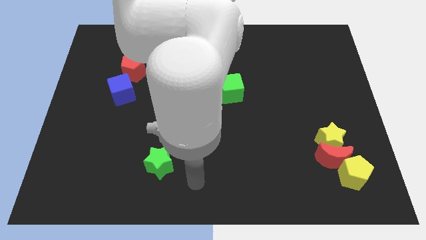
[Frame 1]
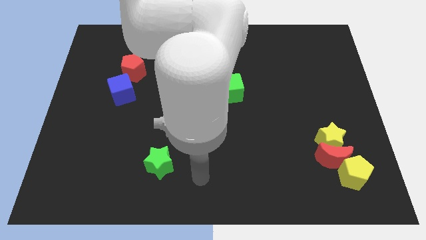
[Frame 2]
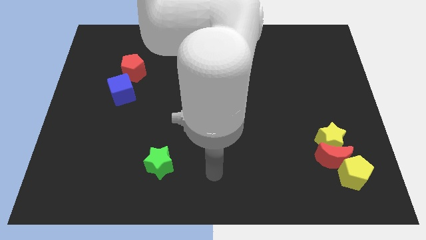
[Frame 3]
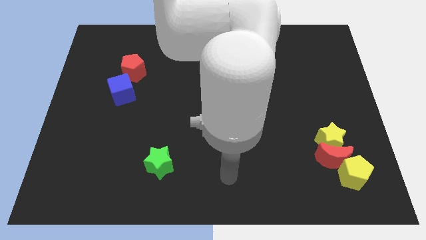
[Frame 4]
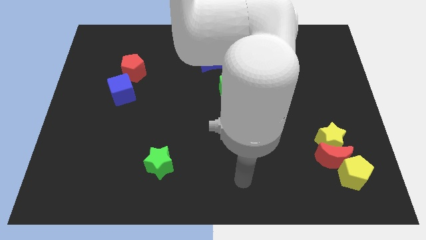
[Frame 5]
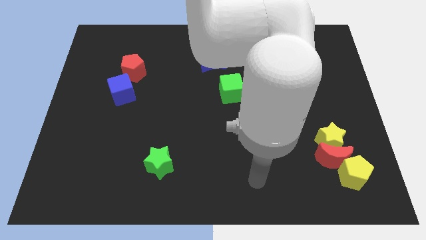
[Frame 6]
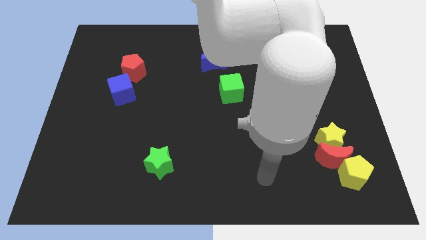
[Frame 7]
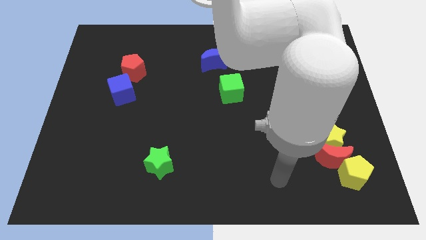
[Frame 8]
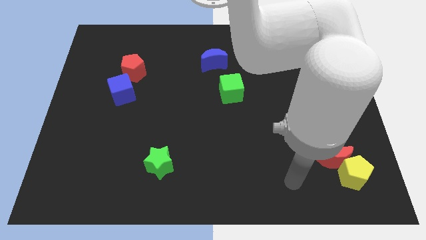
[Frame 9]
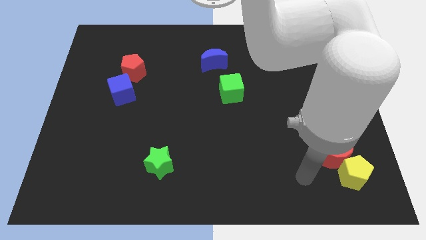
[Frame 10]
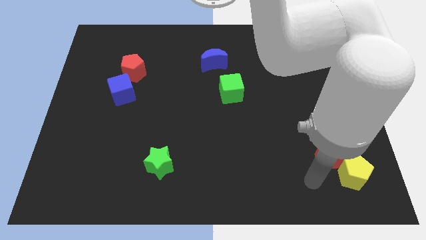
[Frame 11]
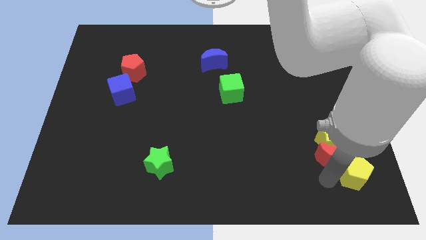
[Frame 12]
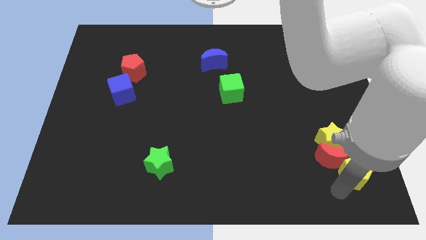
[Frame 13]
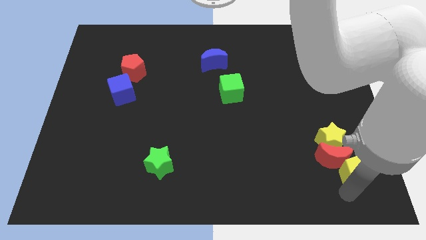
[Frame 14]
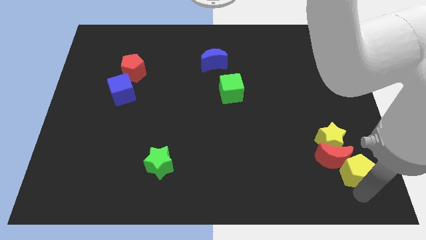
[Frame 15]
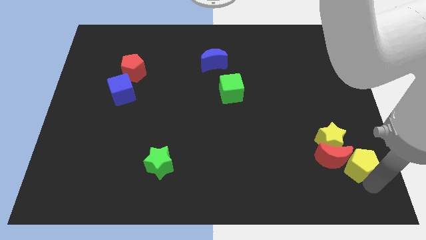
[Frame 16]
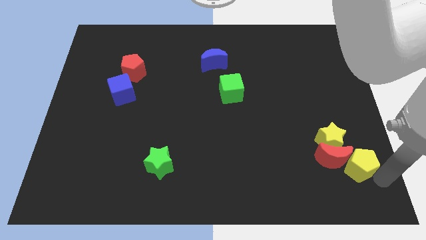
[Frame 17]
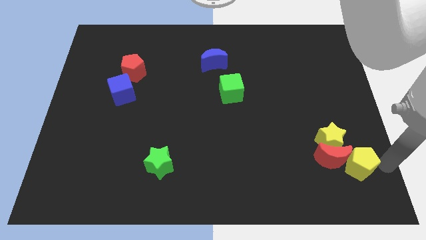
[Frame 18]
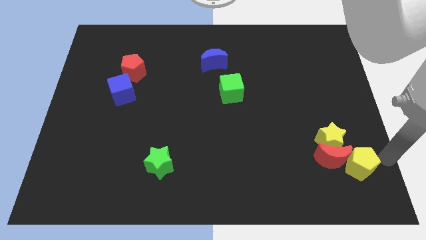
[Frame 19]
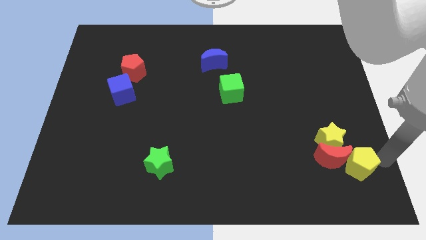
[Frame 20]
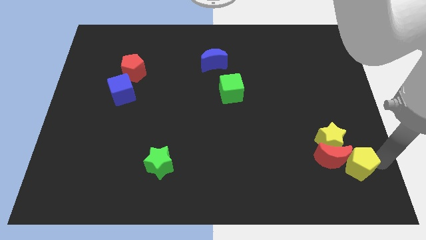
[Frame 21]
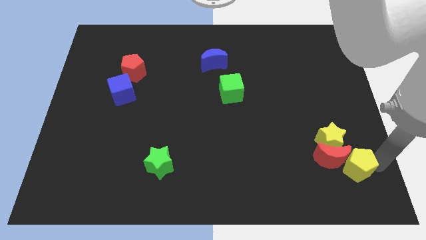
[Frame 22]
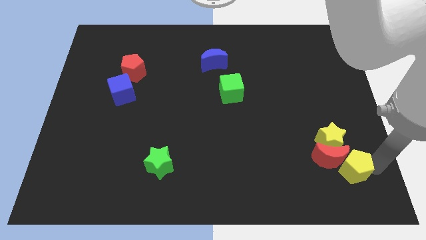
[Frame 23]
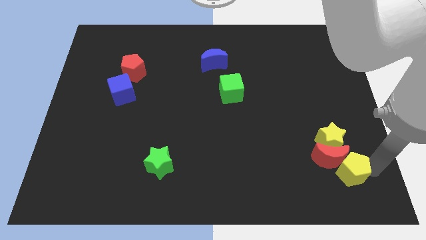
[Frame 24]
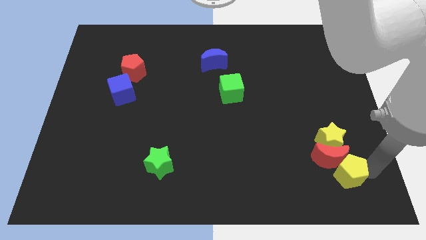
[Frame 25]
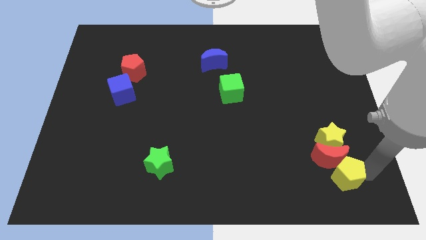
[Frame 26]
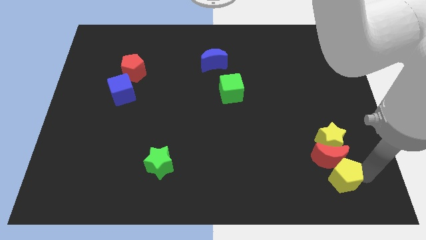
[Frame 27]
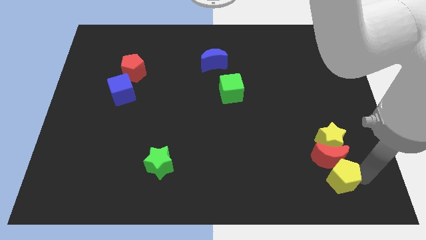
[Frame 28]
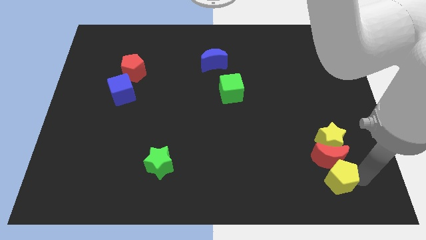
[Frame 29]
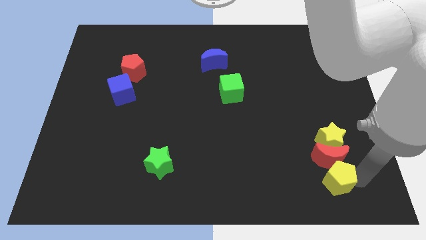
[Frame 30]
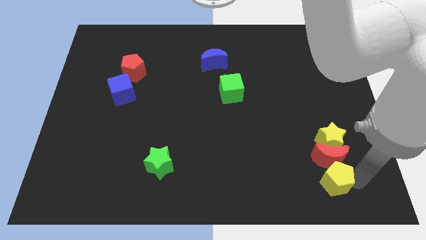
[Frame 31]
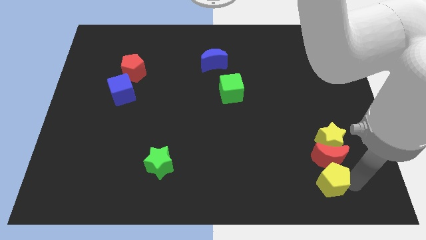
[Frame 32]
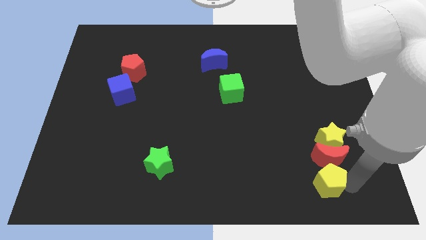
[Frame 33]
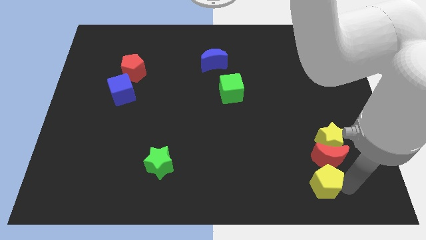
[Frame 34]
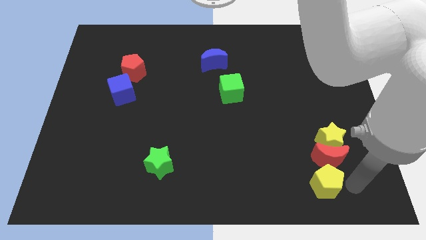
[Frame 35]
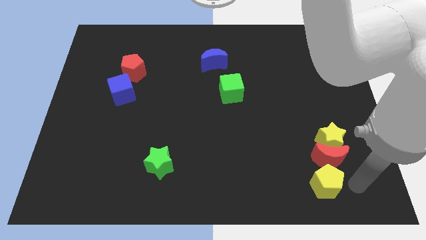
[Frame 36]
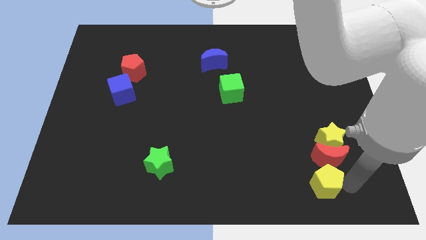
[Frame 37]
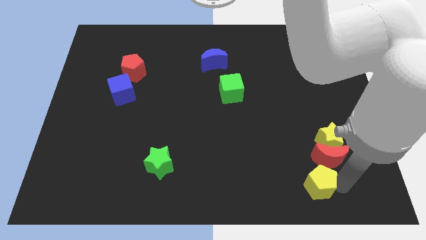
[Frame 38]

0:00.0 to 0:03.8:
move the yellow pentagon a little left

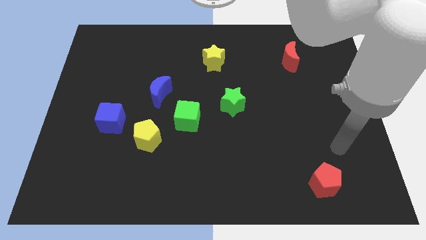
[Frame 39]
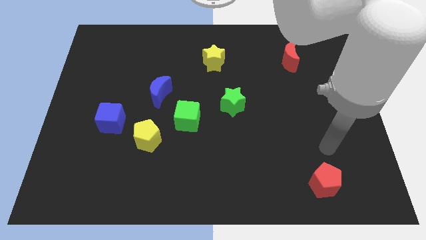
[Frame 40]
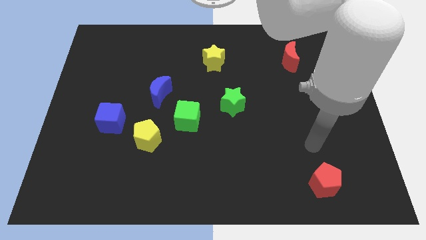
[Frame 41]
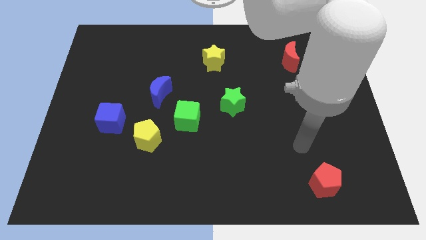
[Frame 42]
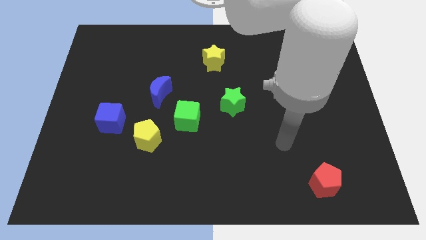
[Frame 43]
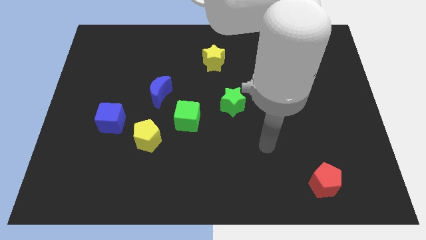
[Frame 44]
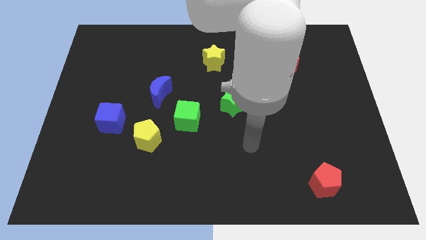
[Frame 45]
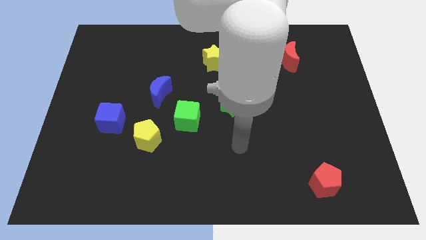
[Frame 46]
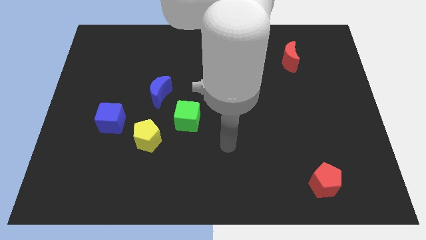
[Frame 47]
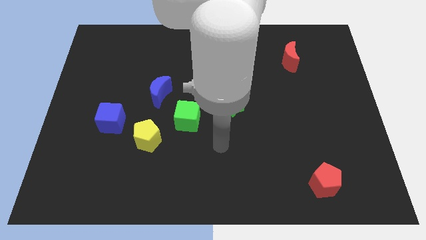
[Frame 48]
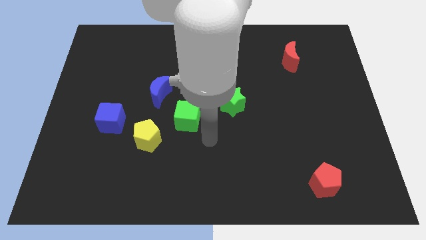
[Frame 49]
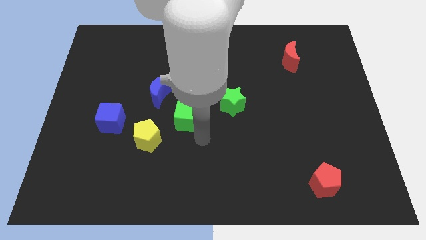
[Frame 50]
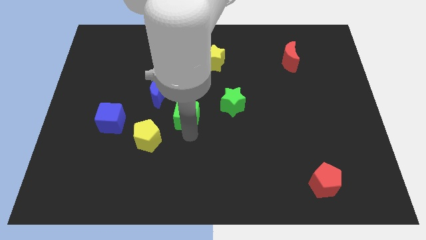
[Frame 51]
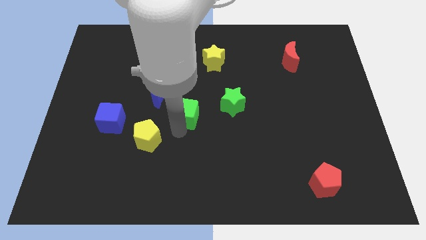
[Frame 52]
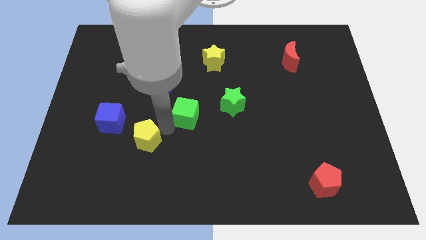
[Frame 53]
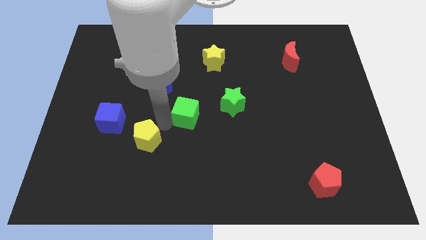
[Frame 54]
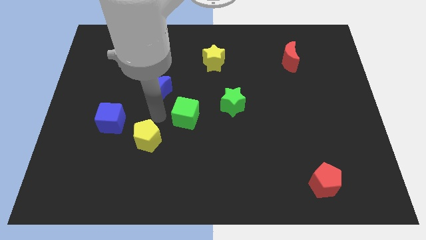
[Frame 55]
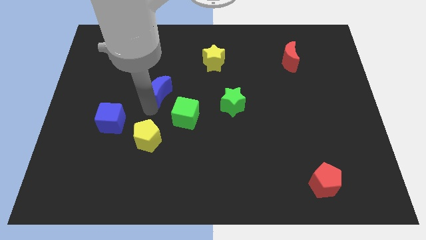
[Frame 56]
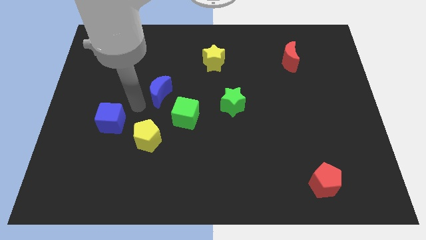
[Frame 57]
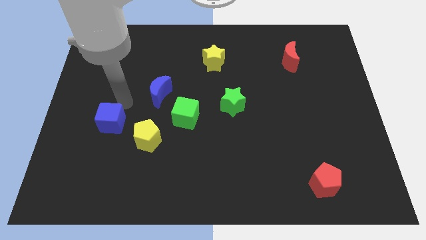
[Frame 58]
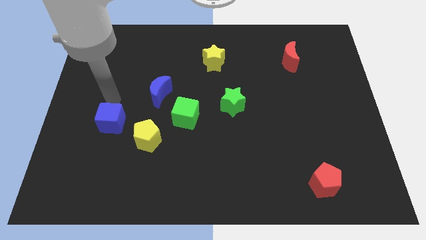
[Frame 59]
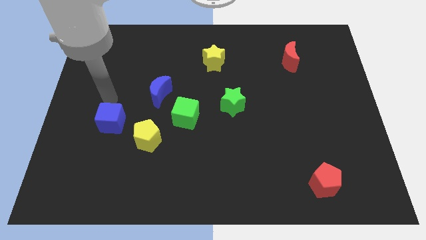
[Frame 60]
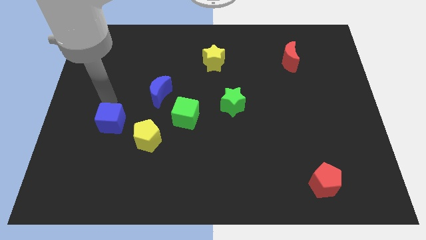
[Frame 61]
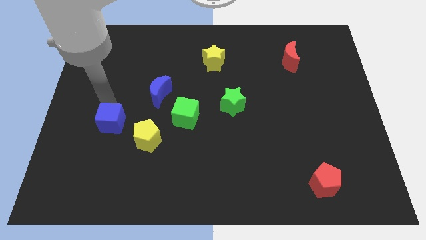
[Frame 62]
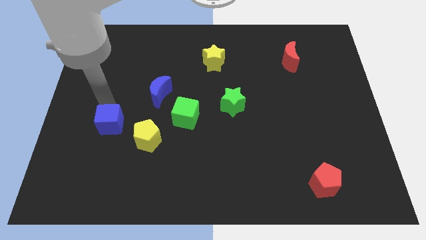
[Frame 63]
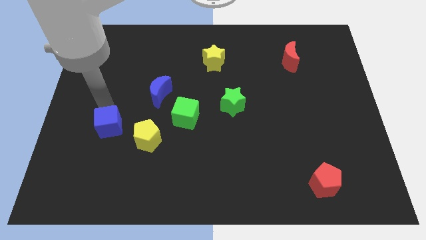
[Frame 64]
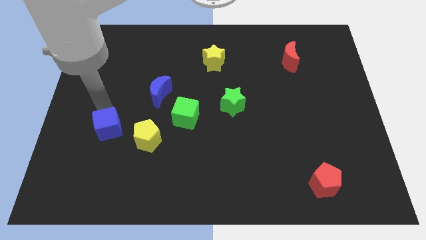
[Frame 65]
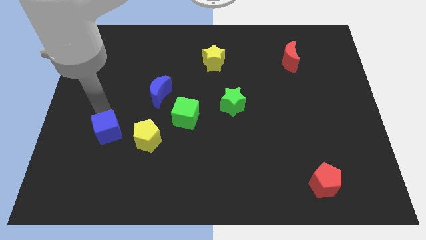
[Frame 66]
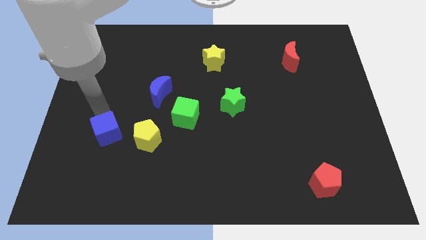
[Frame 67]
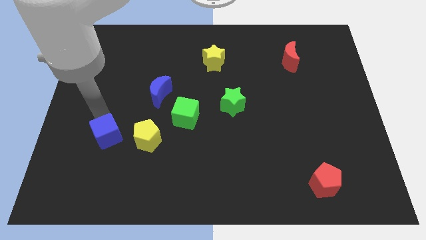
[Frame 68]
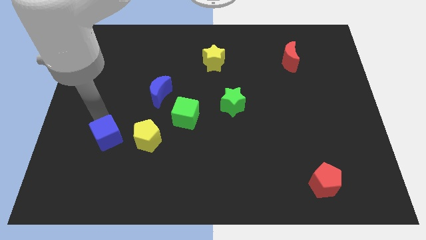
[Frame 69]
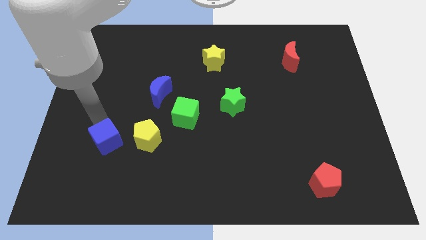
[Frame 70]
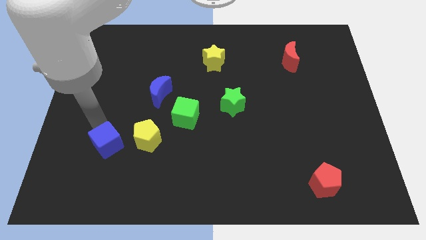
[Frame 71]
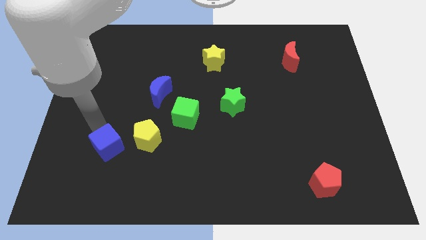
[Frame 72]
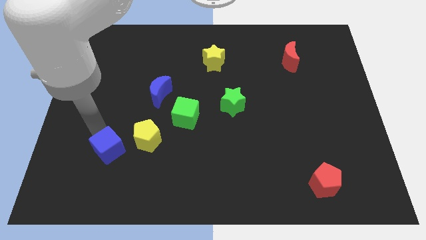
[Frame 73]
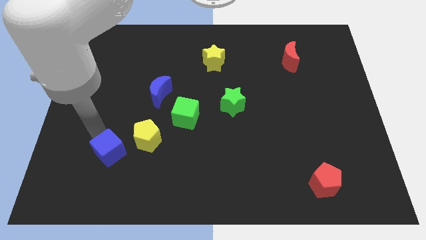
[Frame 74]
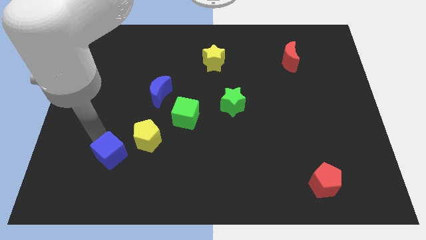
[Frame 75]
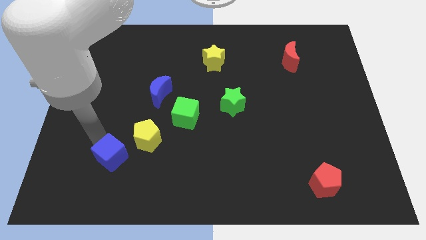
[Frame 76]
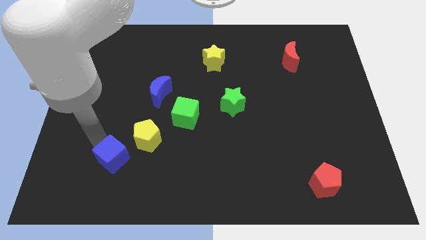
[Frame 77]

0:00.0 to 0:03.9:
slightly move the blue cube downwards and right diagonally

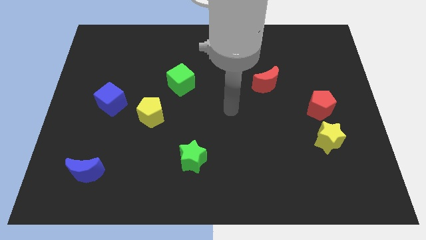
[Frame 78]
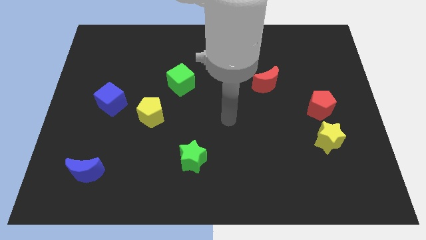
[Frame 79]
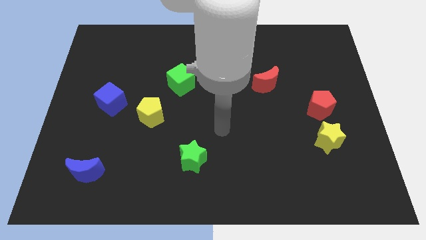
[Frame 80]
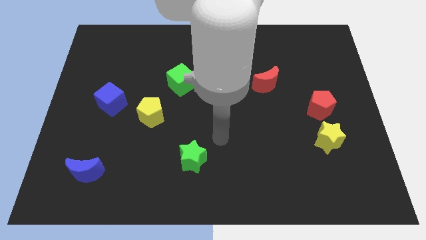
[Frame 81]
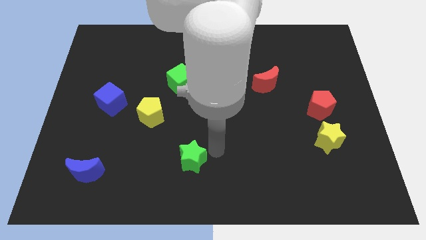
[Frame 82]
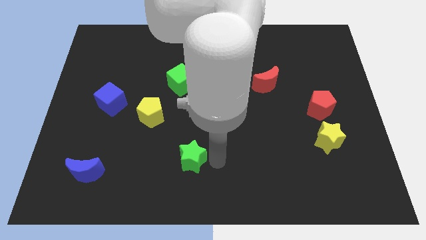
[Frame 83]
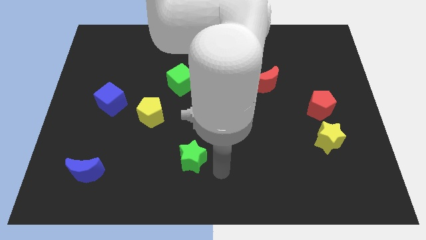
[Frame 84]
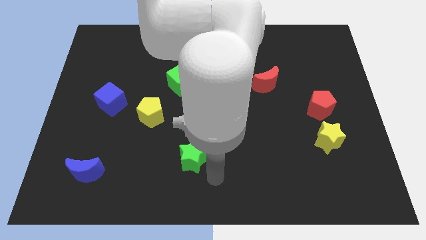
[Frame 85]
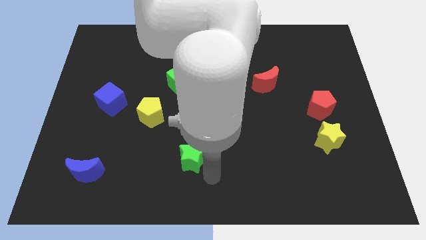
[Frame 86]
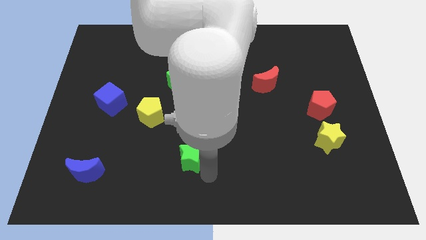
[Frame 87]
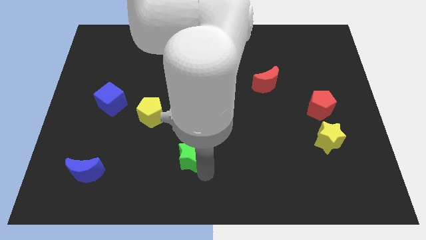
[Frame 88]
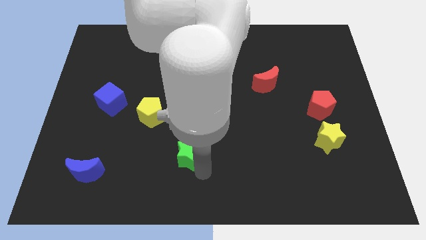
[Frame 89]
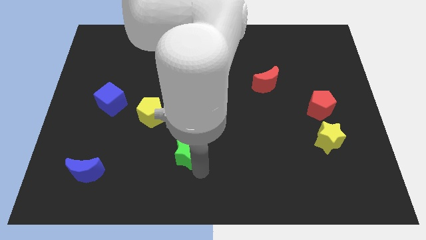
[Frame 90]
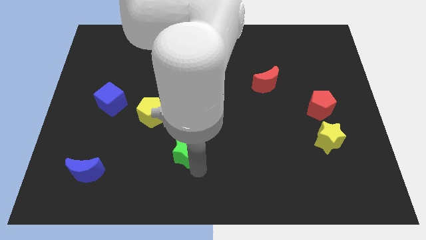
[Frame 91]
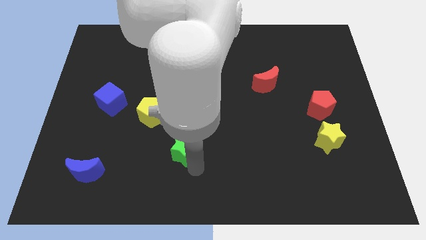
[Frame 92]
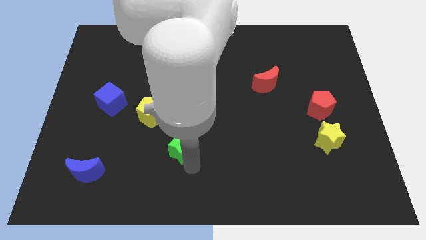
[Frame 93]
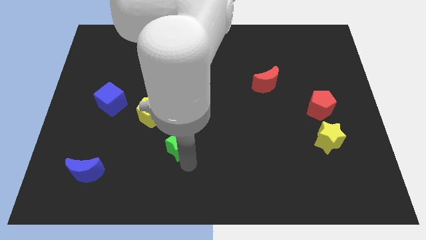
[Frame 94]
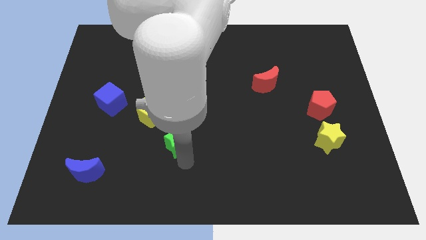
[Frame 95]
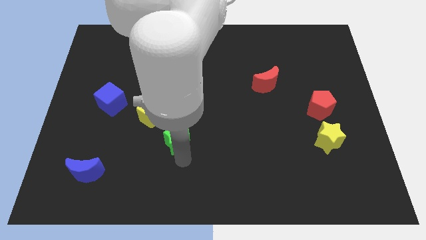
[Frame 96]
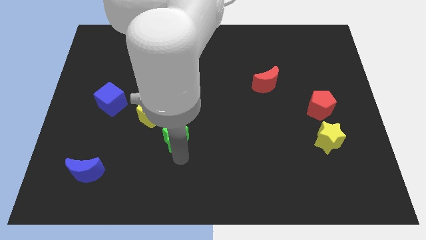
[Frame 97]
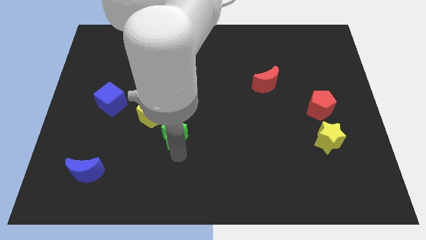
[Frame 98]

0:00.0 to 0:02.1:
slightly push the green star diagonally upwards and to the left
